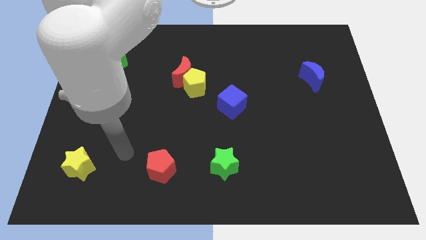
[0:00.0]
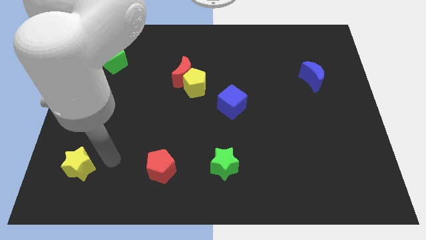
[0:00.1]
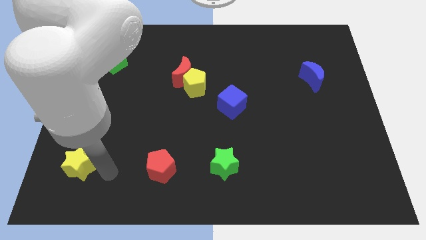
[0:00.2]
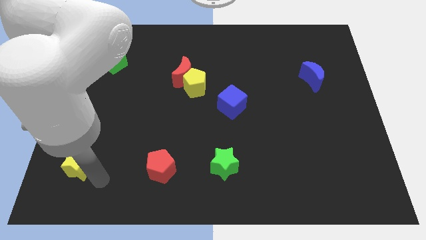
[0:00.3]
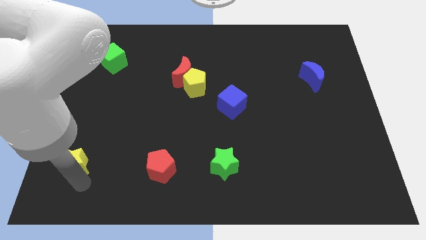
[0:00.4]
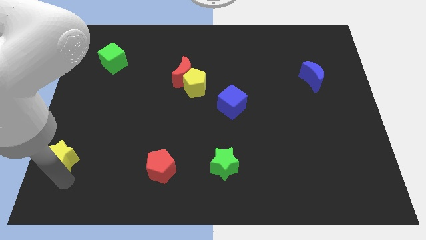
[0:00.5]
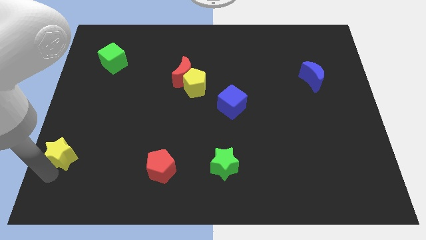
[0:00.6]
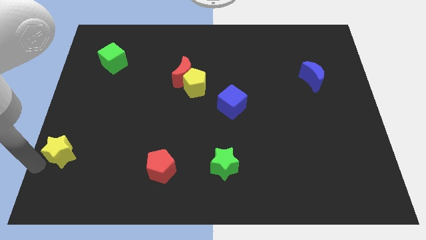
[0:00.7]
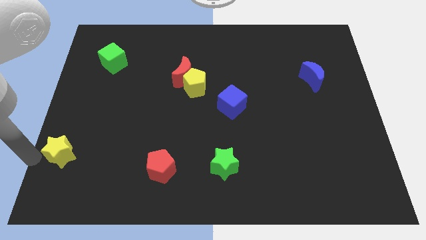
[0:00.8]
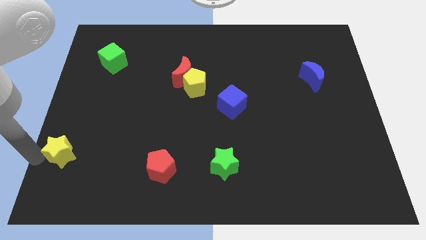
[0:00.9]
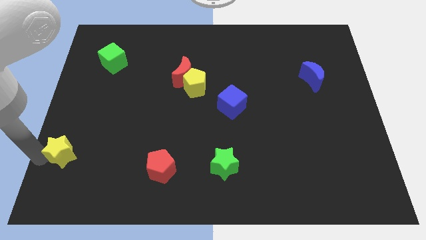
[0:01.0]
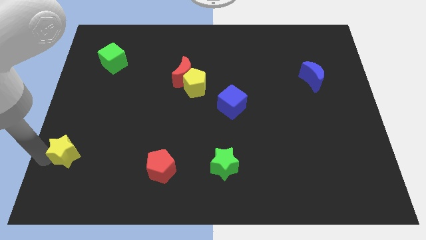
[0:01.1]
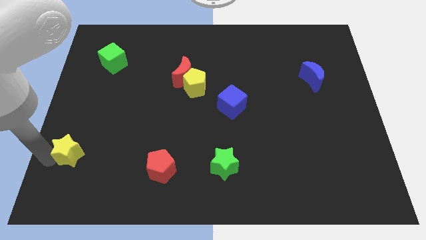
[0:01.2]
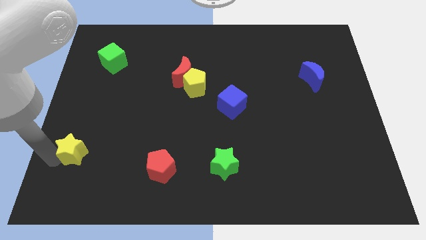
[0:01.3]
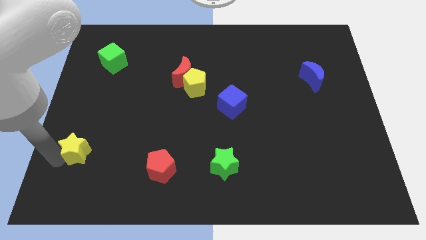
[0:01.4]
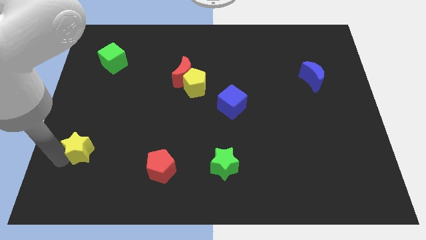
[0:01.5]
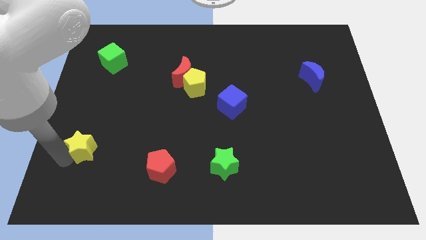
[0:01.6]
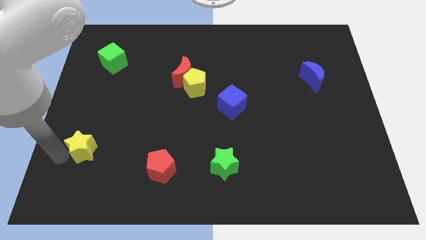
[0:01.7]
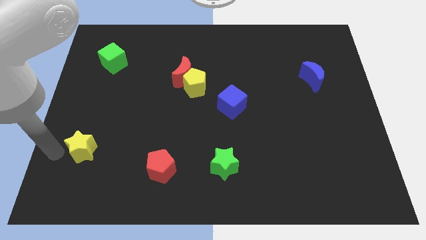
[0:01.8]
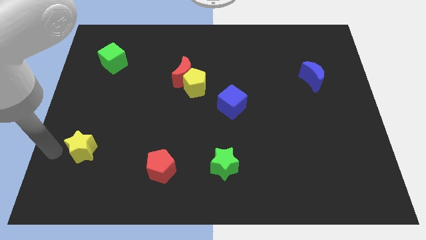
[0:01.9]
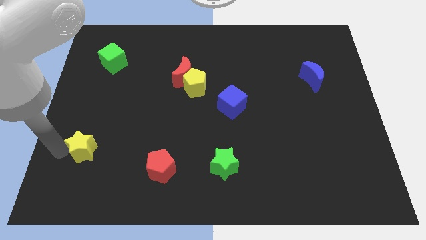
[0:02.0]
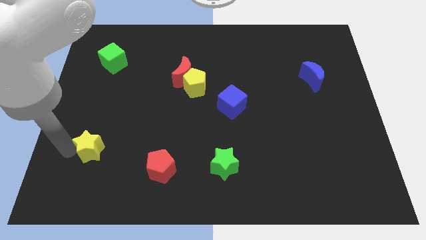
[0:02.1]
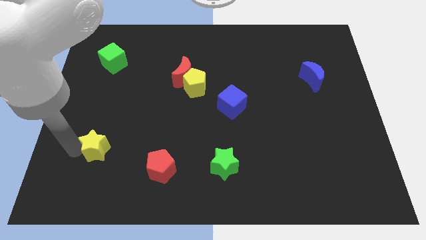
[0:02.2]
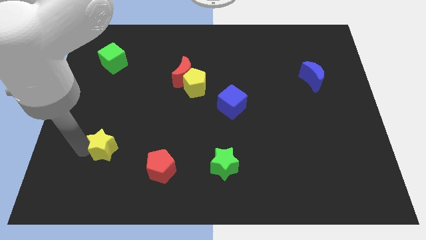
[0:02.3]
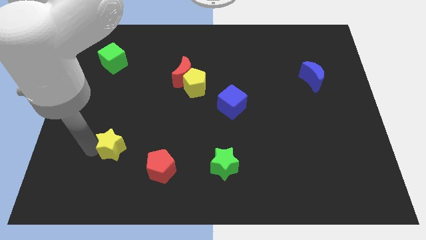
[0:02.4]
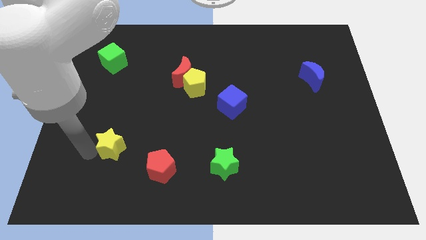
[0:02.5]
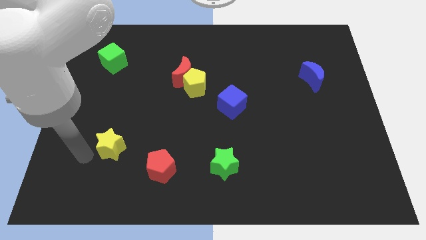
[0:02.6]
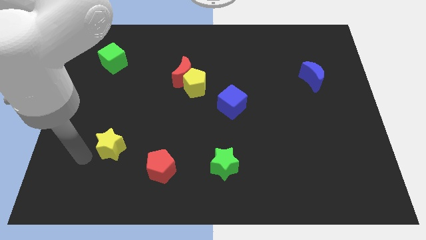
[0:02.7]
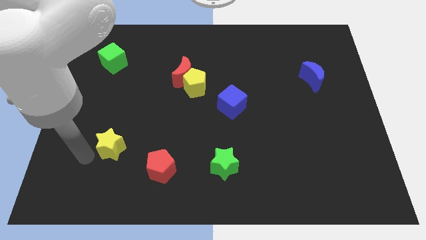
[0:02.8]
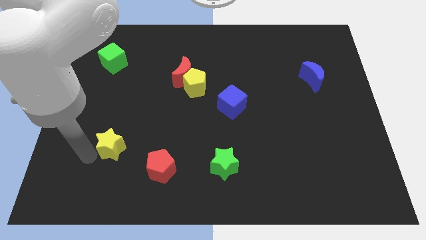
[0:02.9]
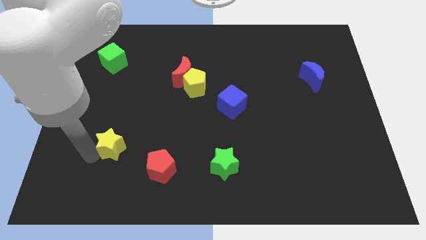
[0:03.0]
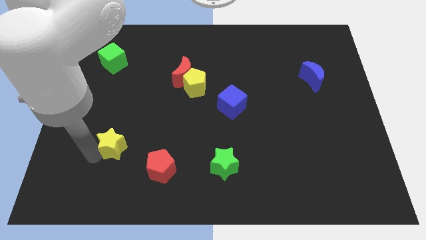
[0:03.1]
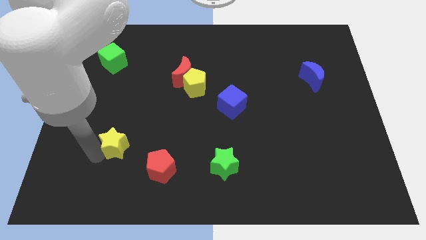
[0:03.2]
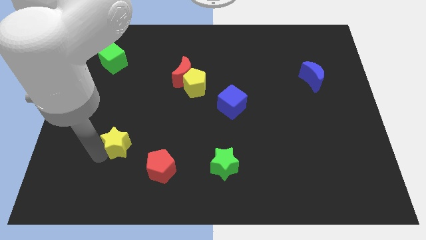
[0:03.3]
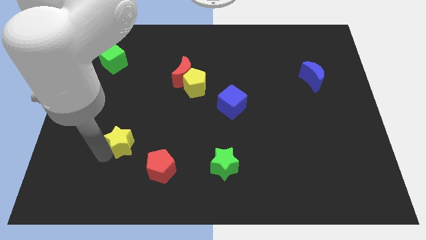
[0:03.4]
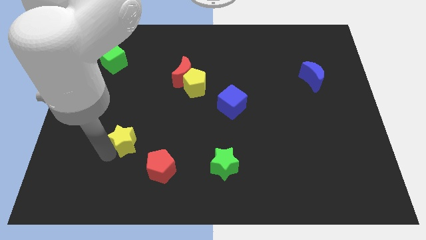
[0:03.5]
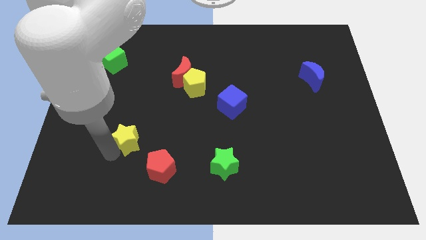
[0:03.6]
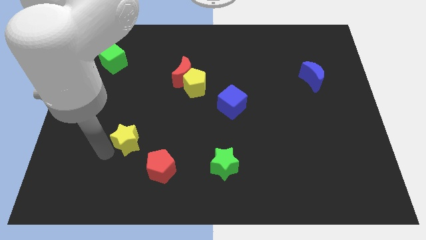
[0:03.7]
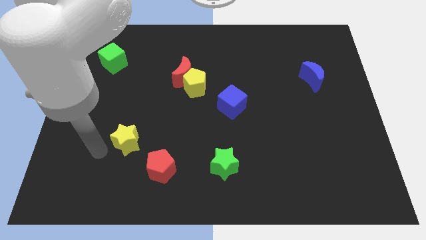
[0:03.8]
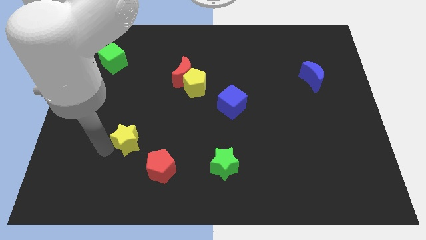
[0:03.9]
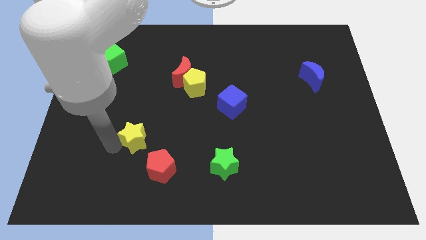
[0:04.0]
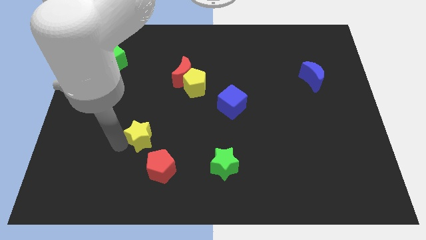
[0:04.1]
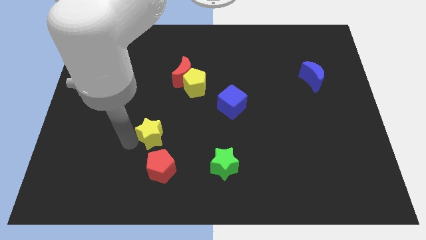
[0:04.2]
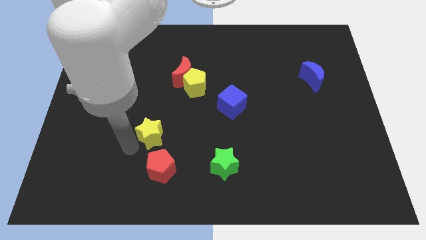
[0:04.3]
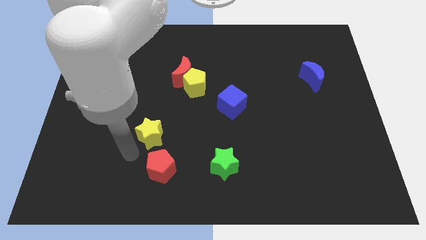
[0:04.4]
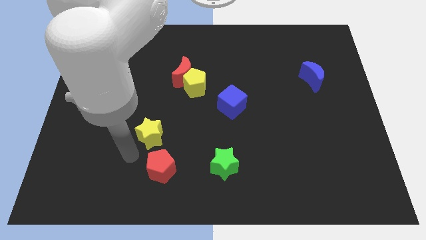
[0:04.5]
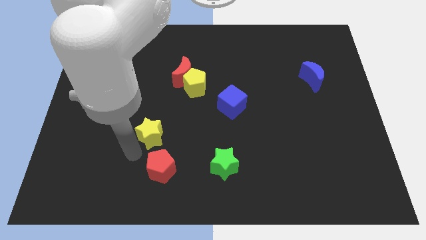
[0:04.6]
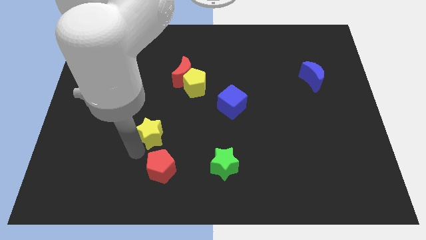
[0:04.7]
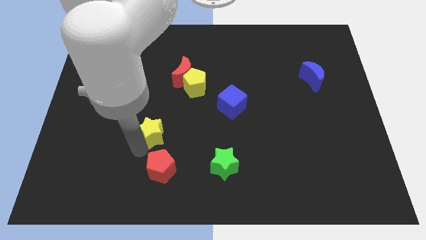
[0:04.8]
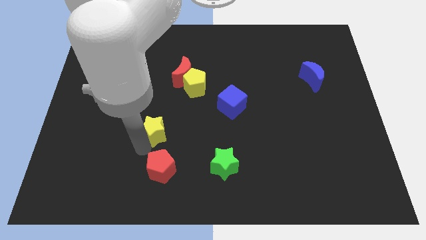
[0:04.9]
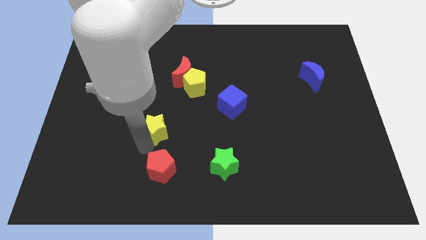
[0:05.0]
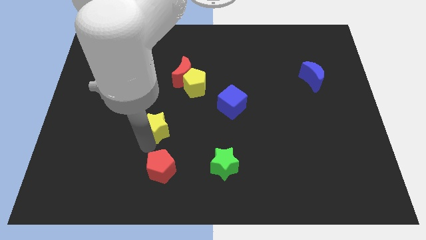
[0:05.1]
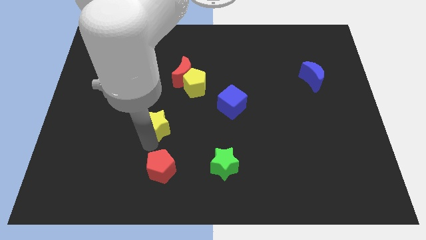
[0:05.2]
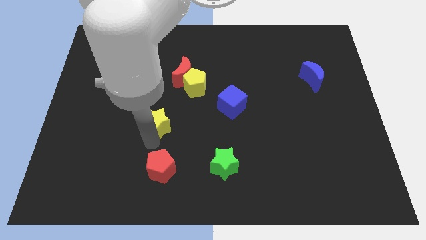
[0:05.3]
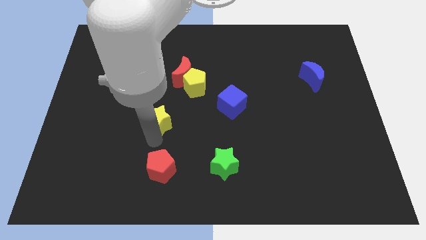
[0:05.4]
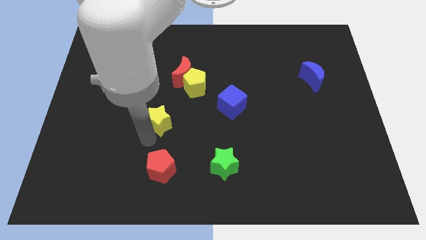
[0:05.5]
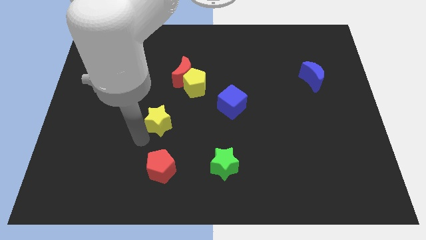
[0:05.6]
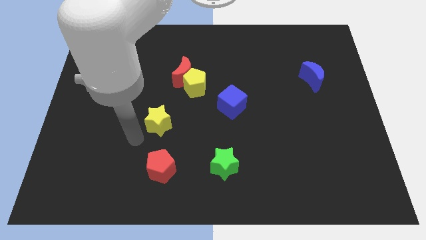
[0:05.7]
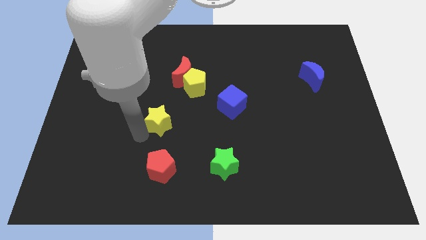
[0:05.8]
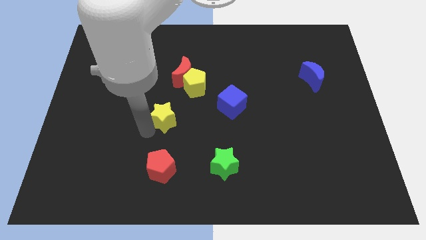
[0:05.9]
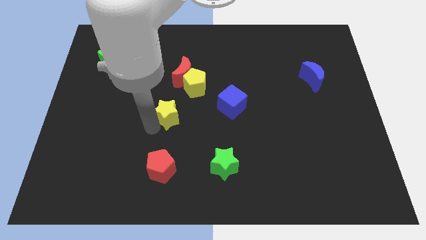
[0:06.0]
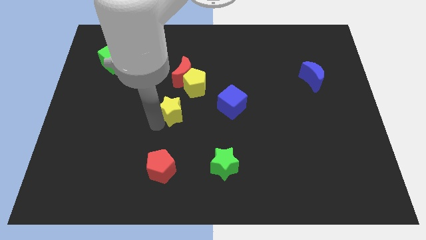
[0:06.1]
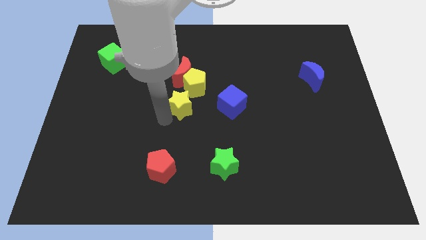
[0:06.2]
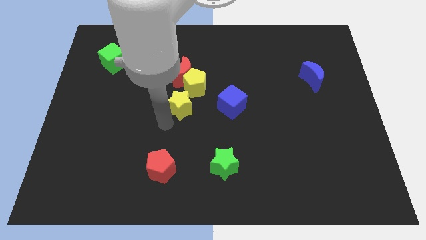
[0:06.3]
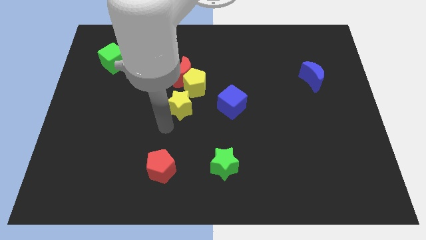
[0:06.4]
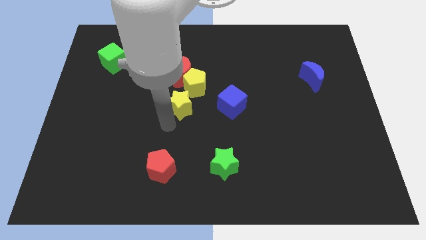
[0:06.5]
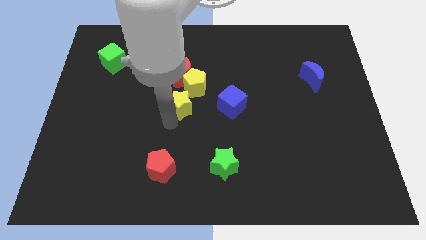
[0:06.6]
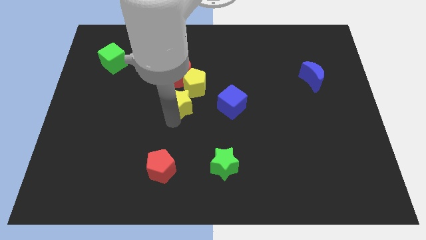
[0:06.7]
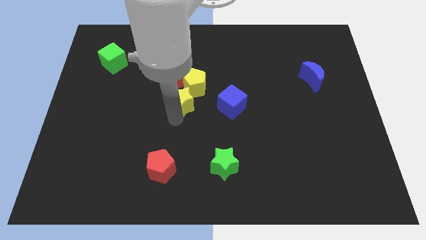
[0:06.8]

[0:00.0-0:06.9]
slide the yellow star to the yellow pentagon
